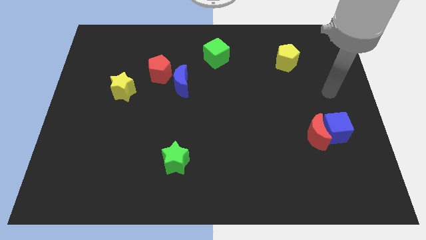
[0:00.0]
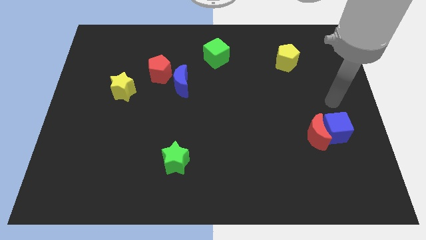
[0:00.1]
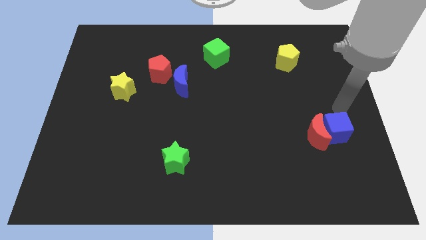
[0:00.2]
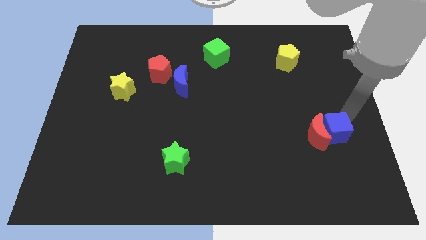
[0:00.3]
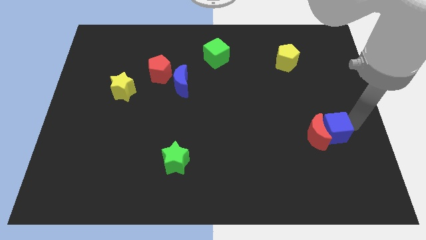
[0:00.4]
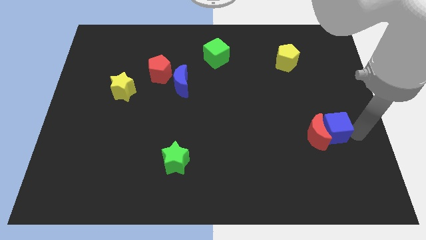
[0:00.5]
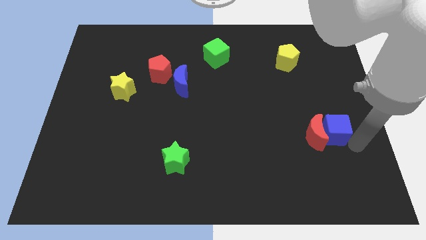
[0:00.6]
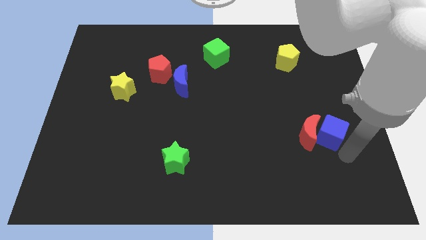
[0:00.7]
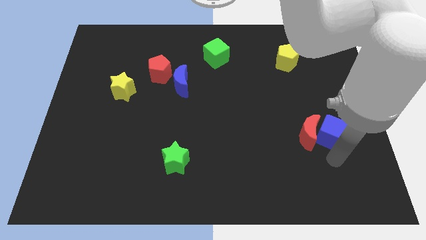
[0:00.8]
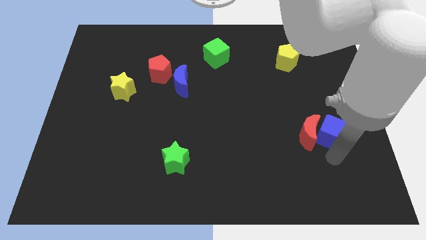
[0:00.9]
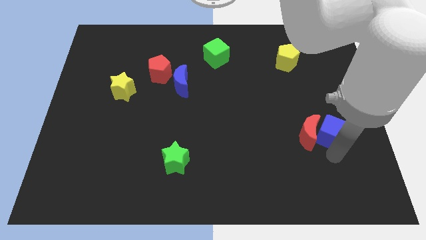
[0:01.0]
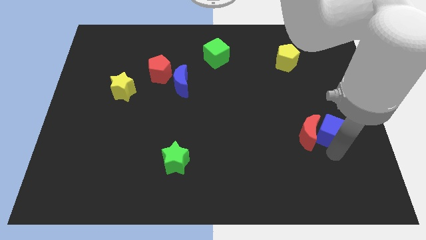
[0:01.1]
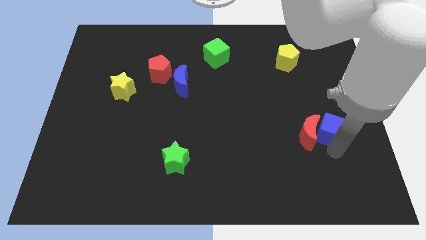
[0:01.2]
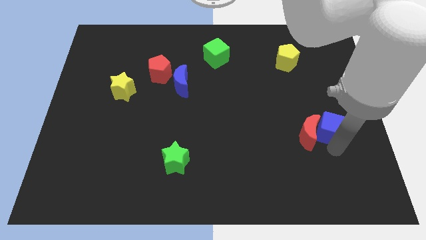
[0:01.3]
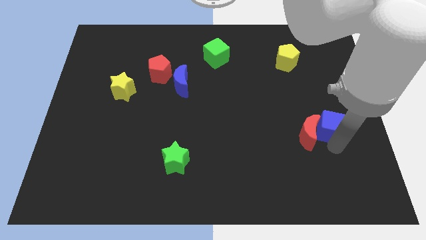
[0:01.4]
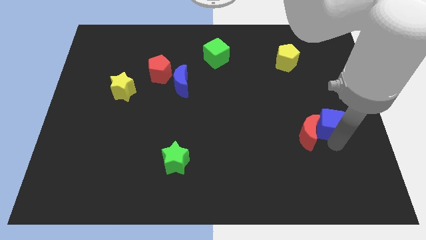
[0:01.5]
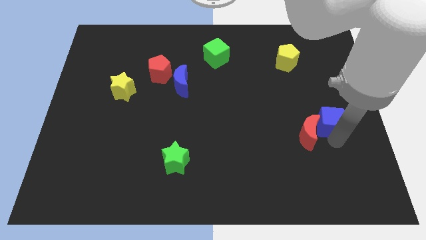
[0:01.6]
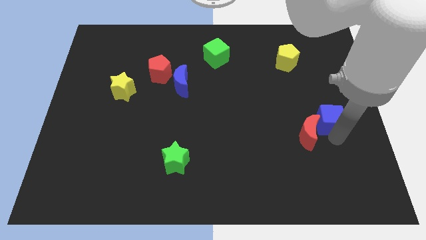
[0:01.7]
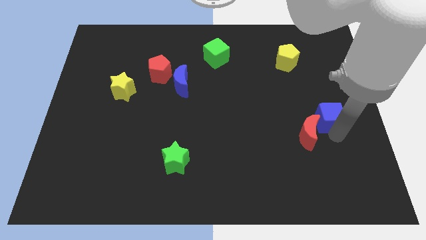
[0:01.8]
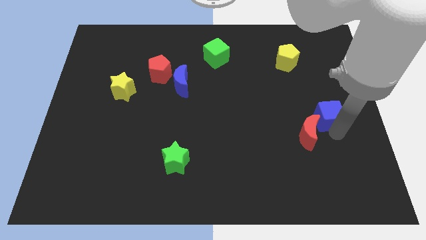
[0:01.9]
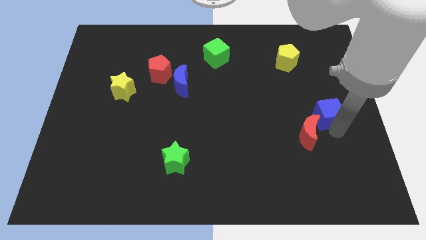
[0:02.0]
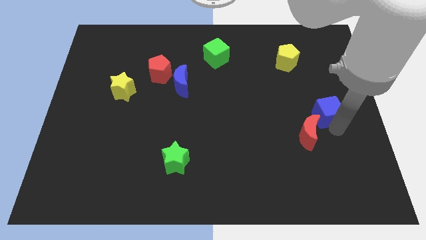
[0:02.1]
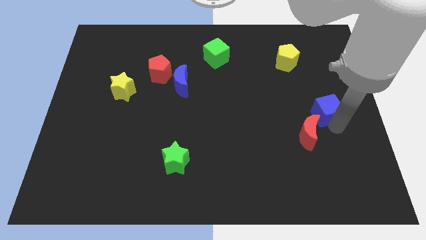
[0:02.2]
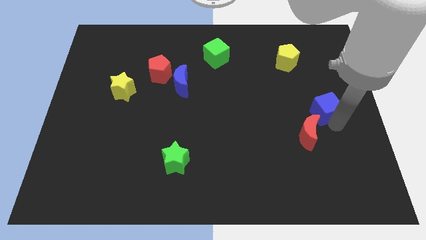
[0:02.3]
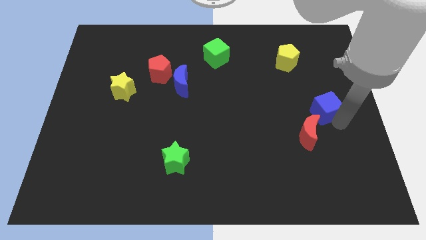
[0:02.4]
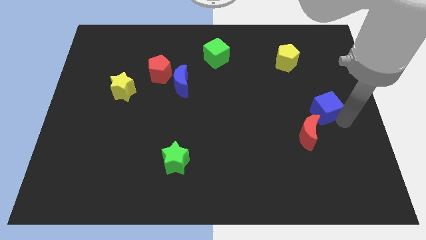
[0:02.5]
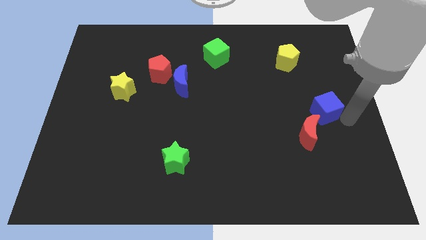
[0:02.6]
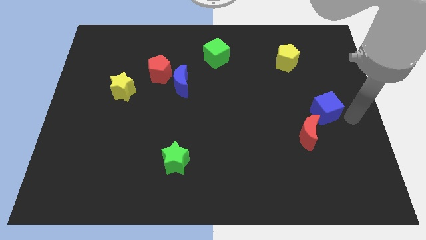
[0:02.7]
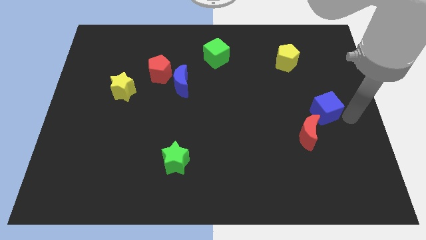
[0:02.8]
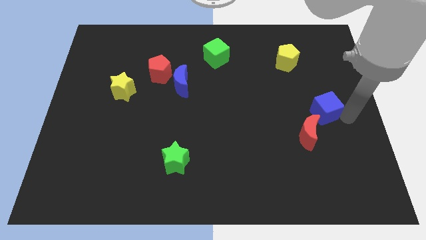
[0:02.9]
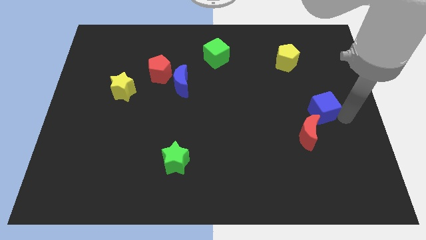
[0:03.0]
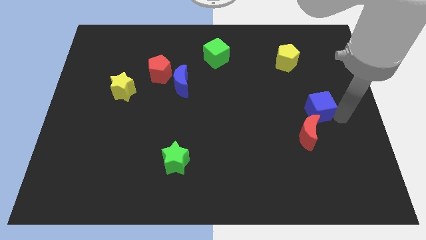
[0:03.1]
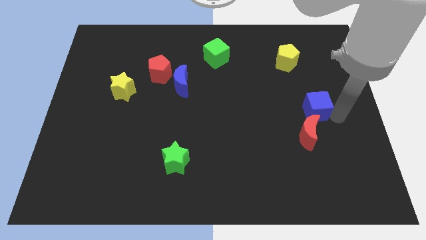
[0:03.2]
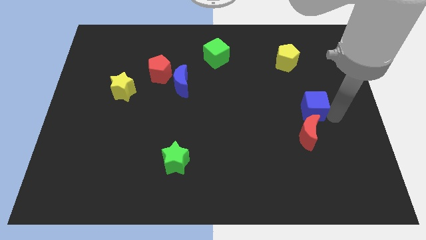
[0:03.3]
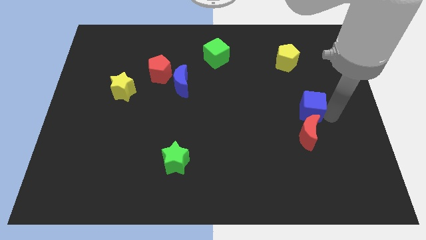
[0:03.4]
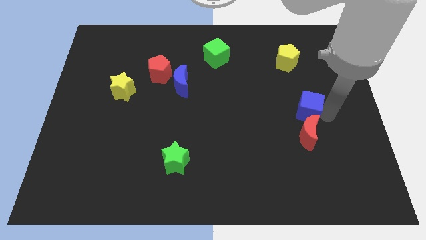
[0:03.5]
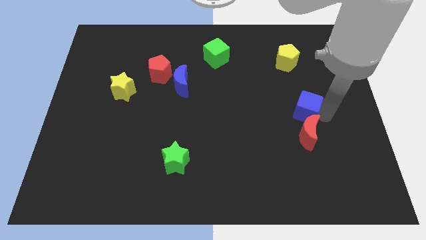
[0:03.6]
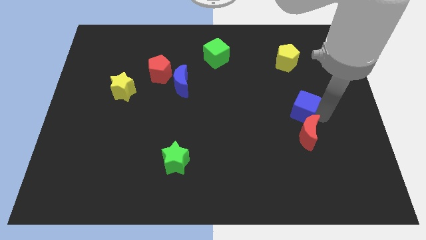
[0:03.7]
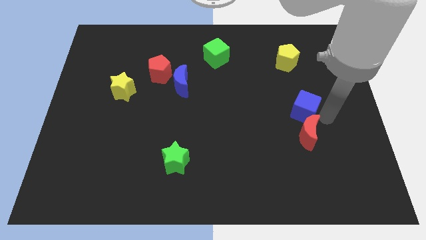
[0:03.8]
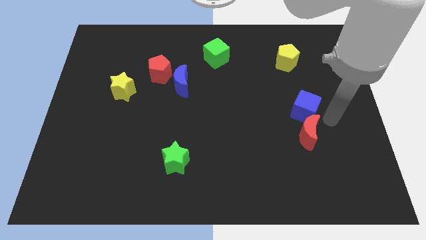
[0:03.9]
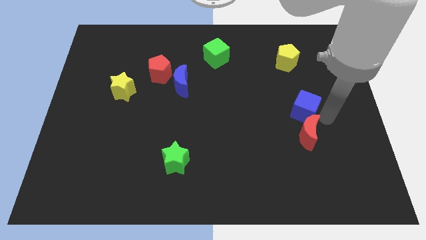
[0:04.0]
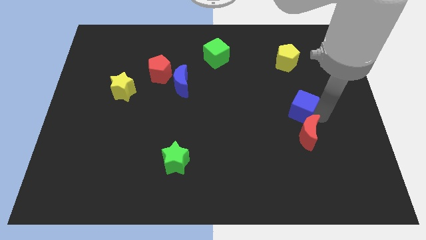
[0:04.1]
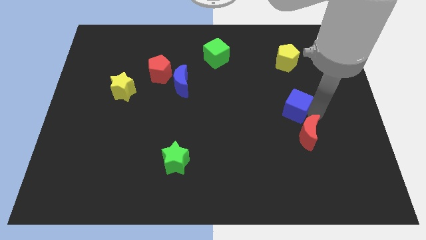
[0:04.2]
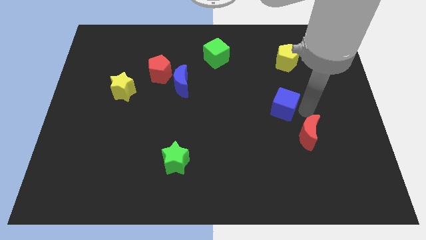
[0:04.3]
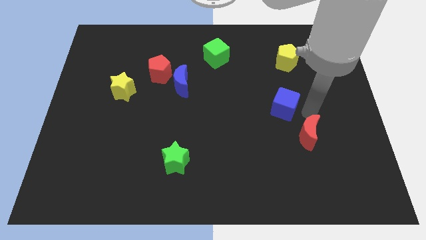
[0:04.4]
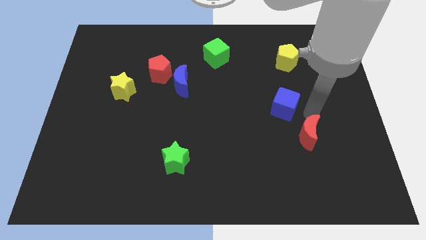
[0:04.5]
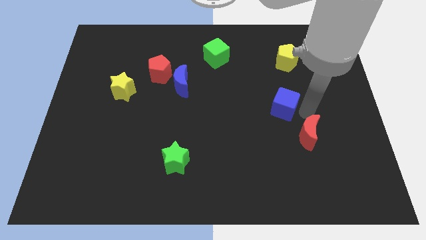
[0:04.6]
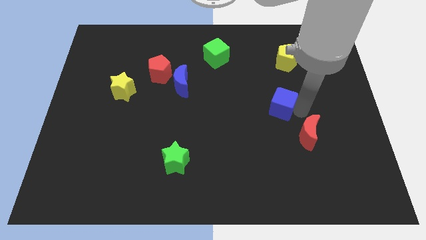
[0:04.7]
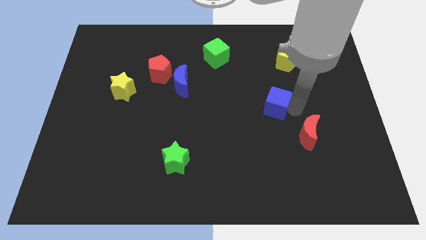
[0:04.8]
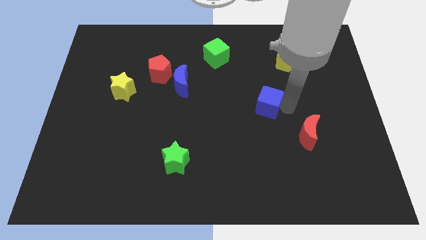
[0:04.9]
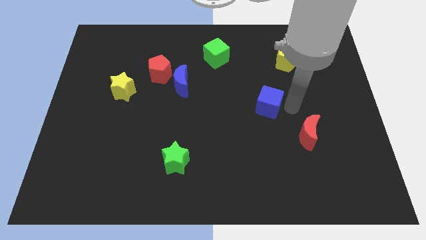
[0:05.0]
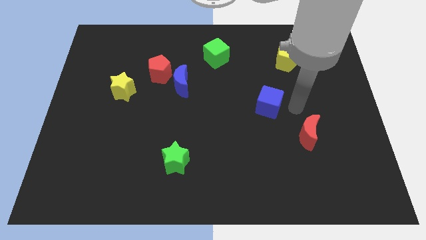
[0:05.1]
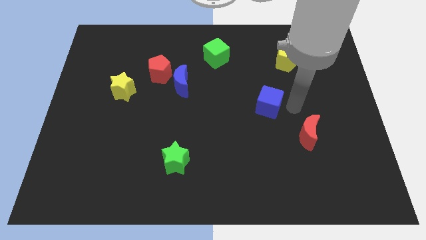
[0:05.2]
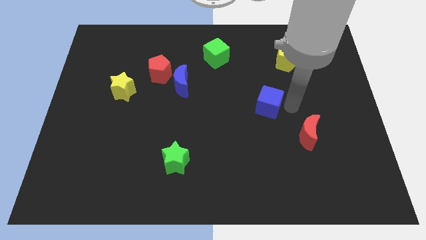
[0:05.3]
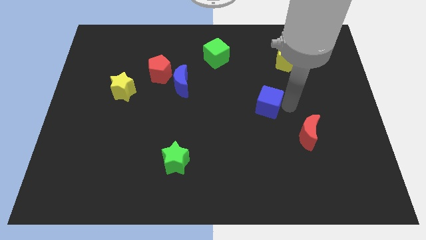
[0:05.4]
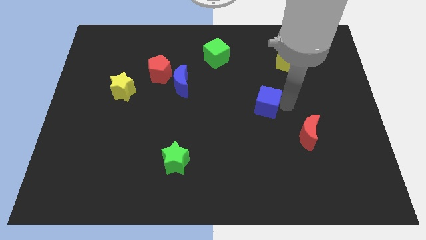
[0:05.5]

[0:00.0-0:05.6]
put the blue cube to the center of the board

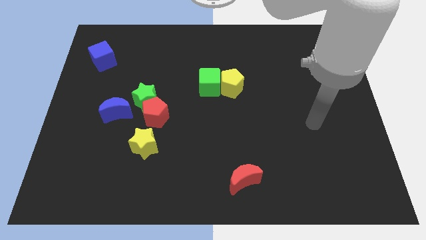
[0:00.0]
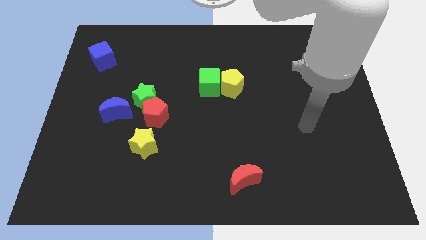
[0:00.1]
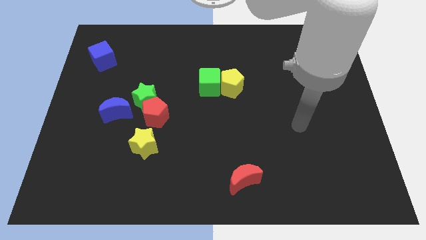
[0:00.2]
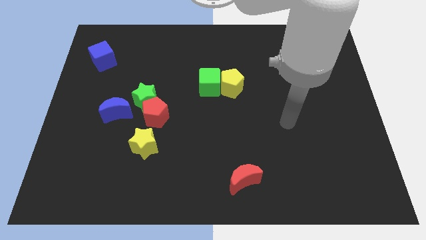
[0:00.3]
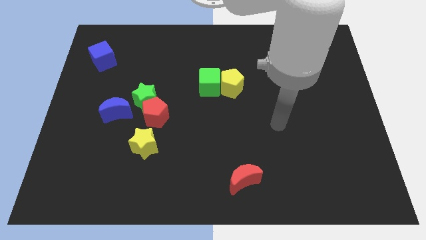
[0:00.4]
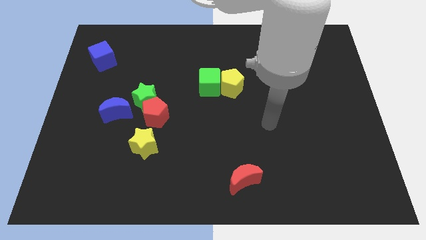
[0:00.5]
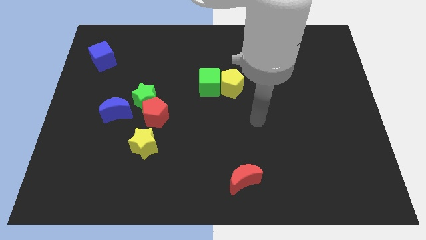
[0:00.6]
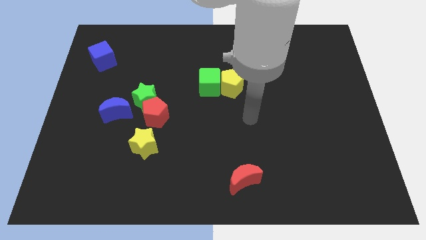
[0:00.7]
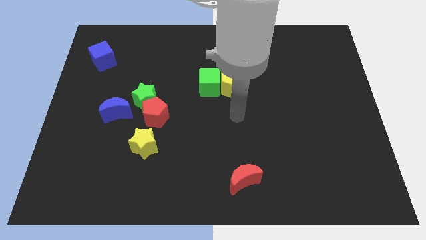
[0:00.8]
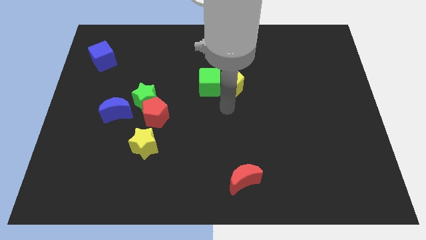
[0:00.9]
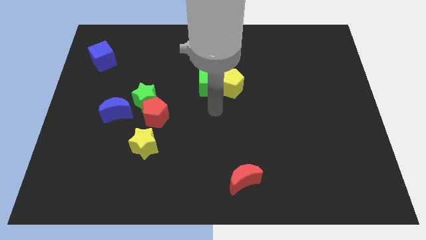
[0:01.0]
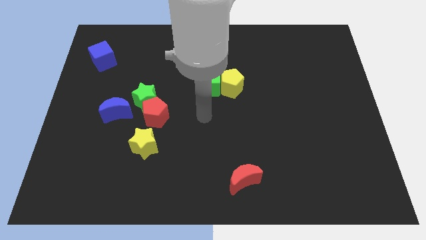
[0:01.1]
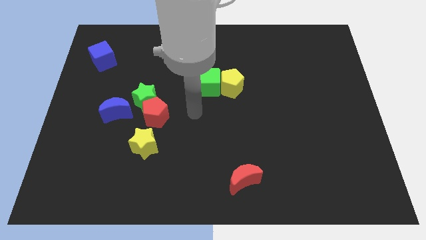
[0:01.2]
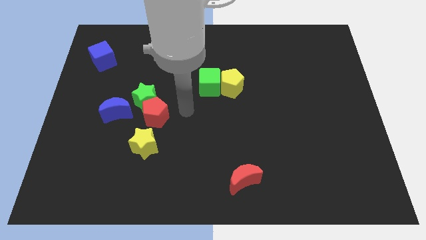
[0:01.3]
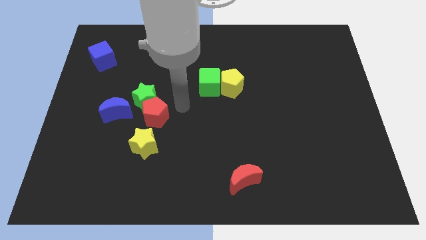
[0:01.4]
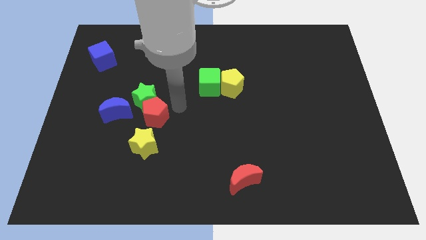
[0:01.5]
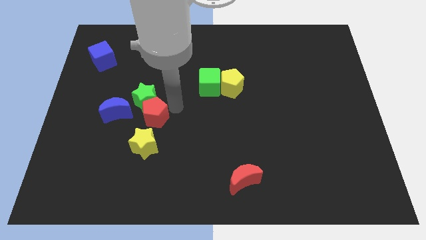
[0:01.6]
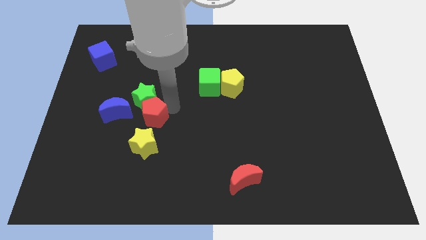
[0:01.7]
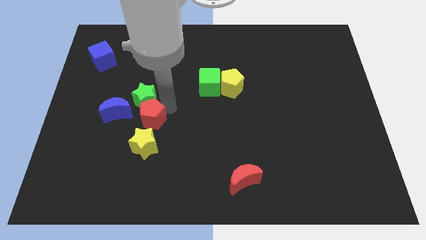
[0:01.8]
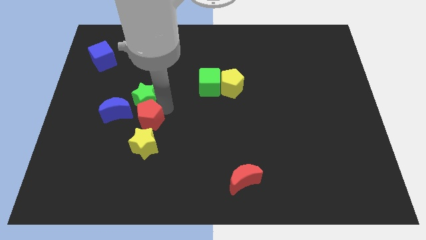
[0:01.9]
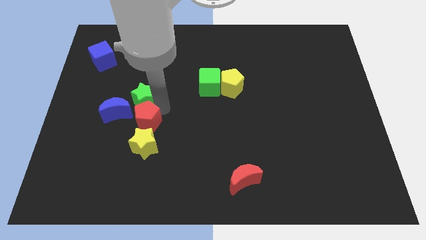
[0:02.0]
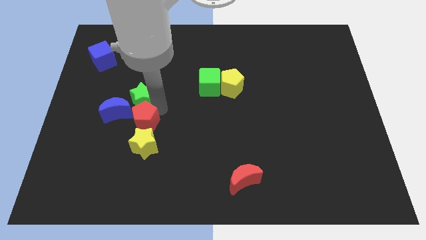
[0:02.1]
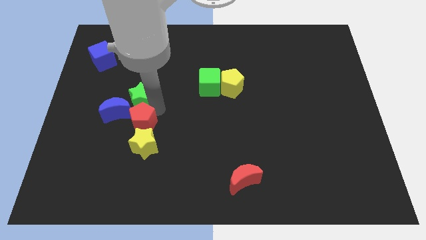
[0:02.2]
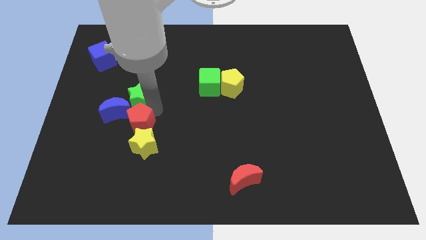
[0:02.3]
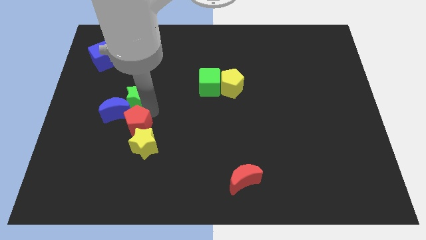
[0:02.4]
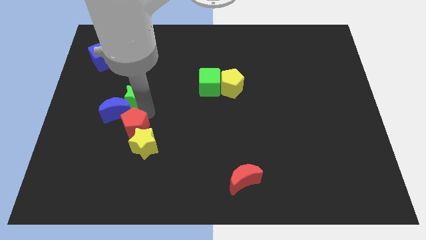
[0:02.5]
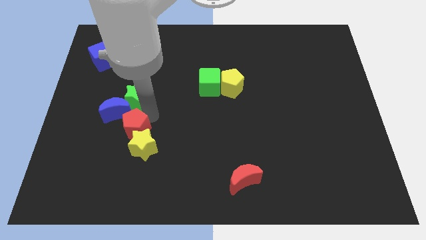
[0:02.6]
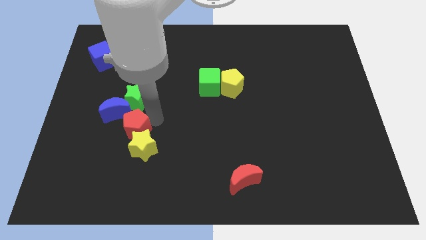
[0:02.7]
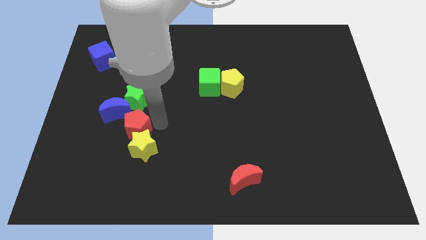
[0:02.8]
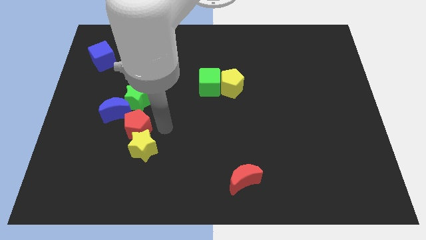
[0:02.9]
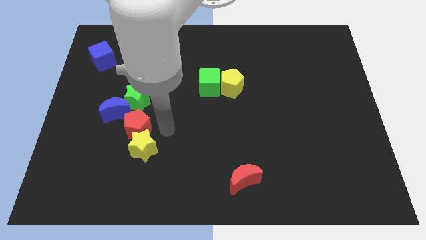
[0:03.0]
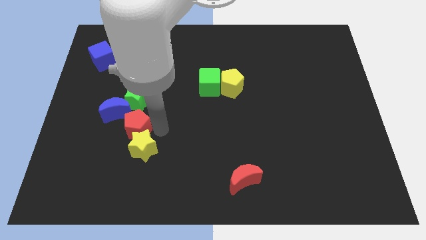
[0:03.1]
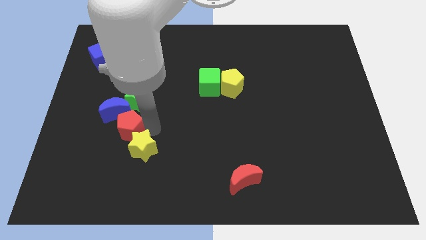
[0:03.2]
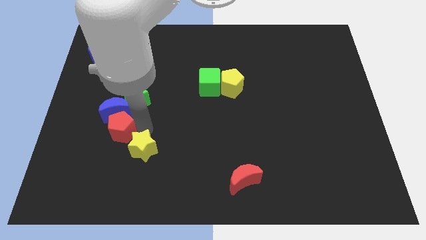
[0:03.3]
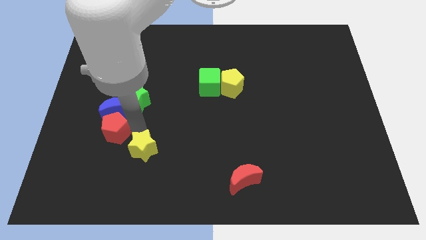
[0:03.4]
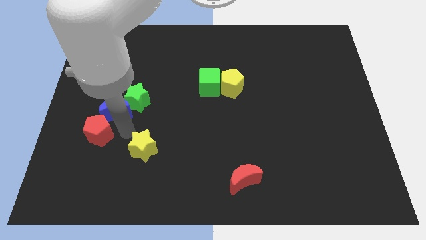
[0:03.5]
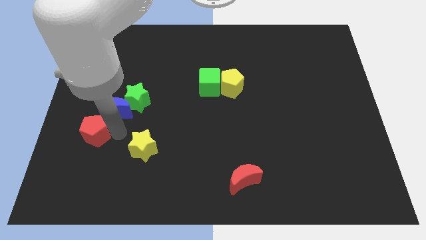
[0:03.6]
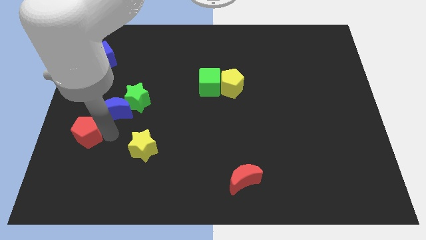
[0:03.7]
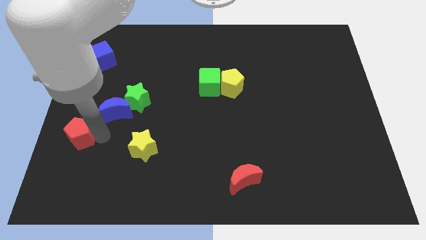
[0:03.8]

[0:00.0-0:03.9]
slide the red pentagon to the left side of the board
